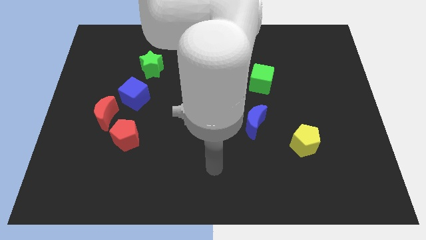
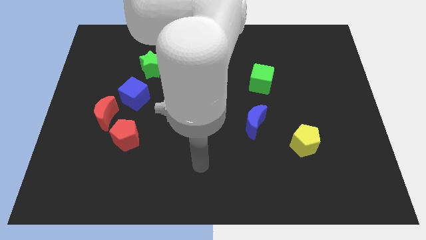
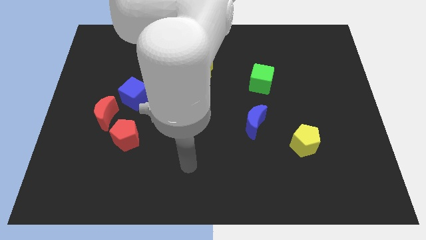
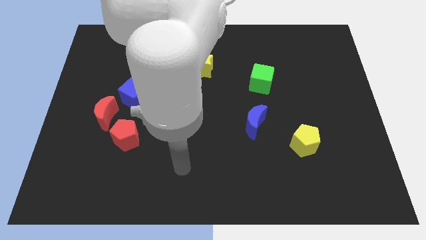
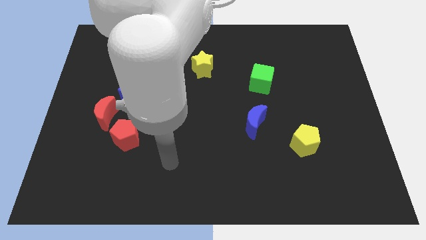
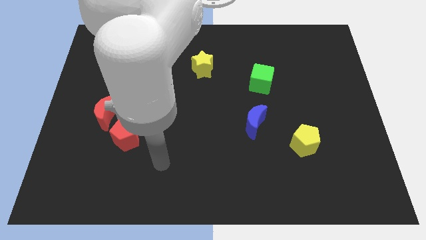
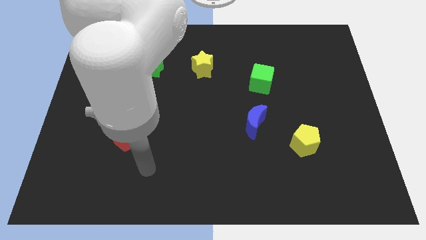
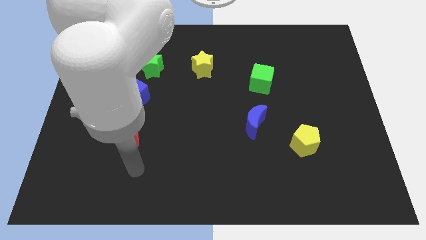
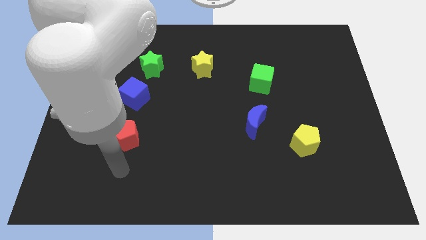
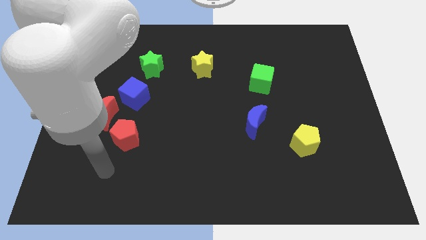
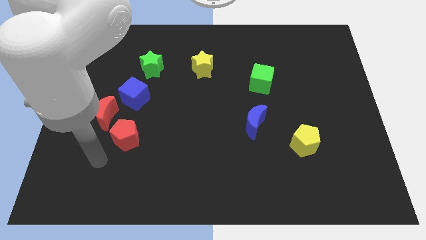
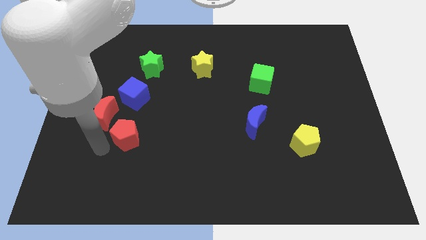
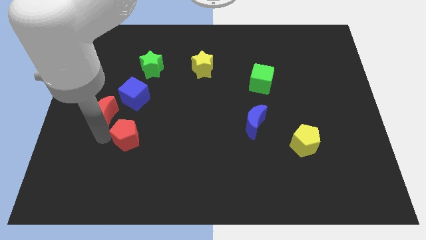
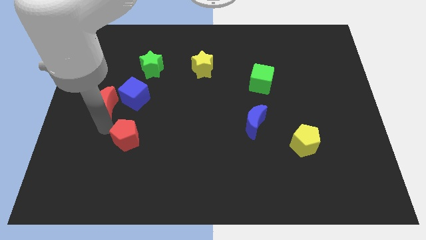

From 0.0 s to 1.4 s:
move the red pentagon away from the red moon

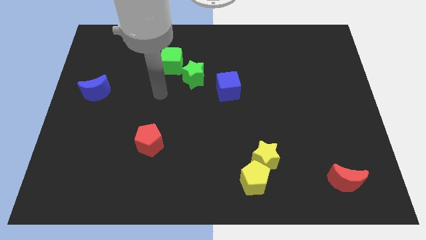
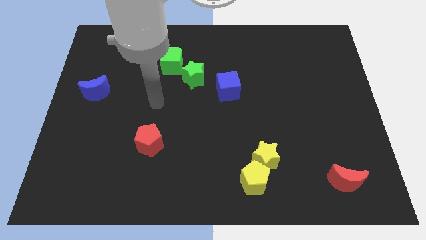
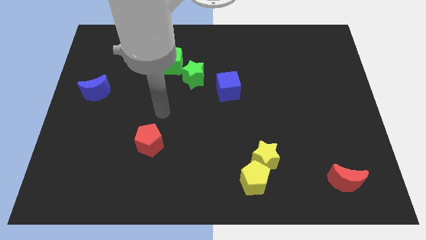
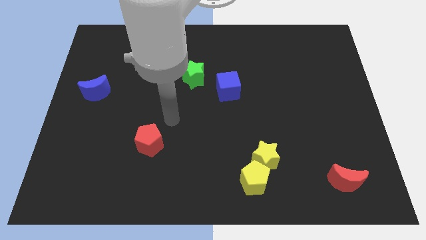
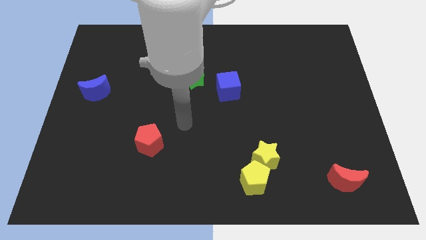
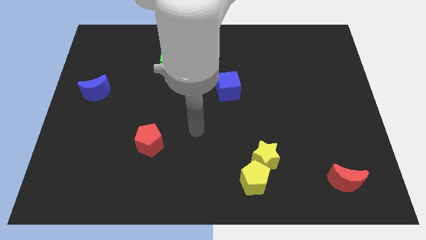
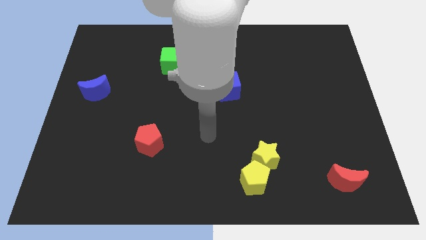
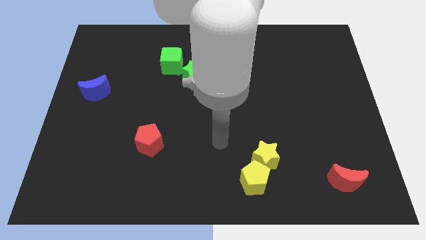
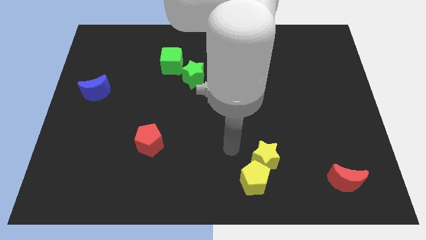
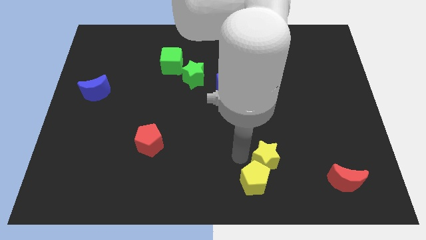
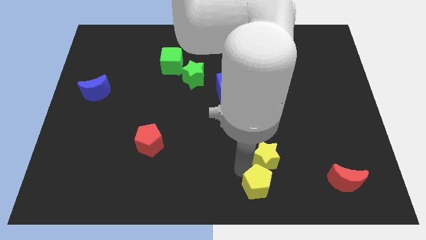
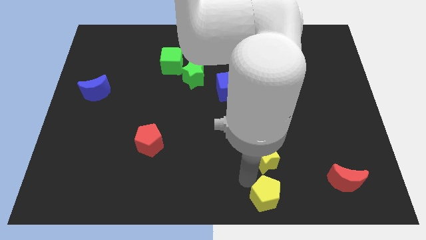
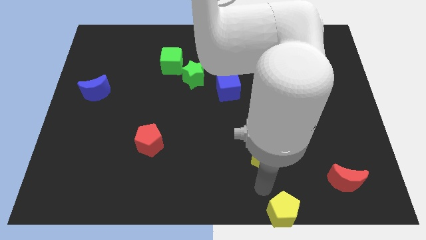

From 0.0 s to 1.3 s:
move the yellow star away from the yellow pentagon

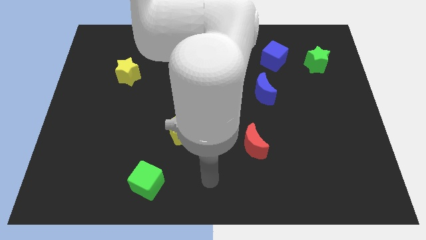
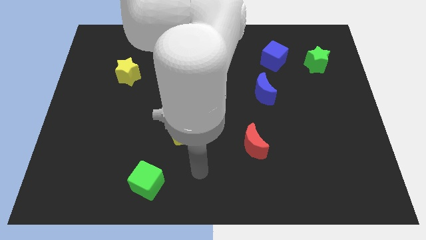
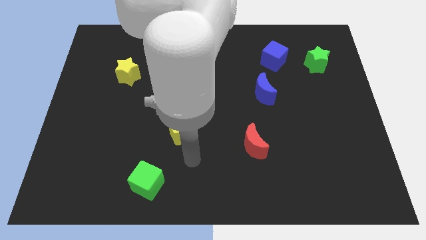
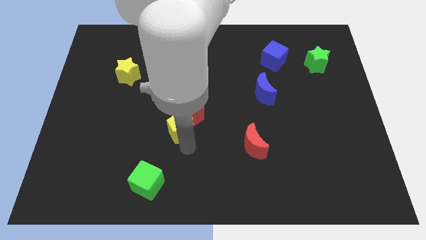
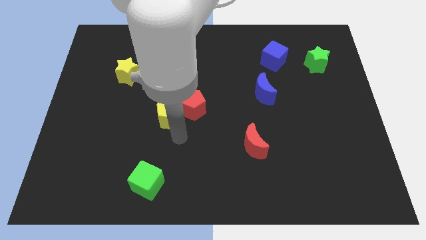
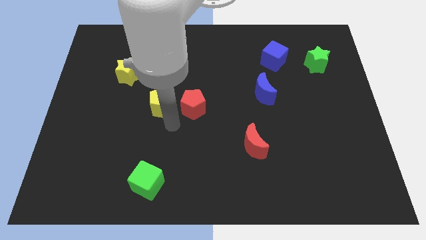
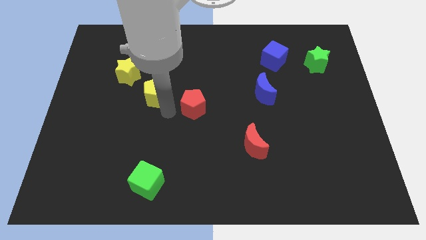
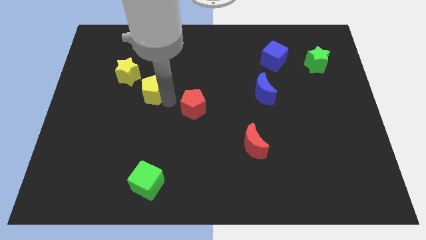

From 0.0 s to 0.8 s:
separate the red pentagon from the yellow pentagon

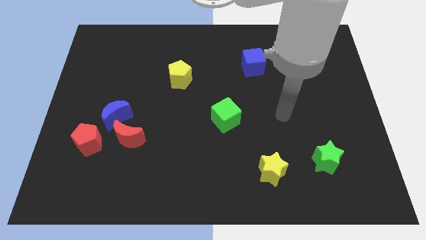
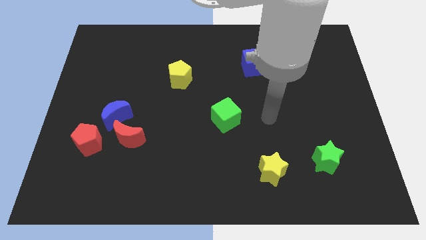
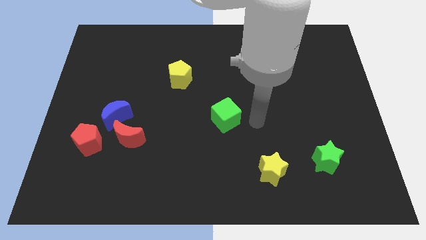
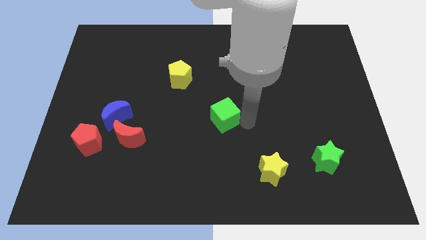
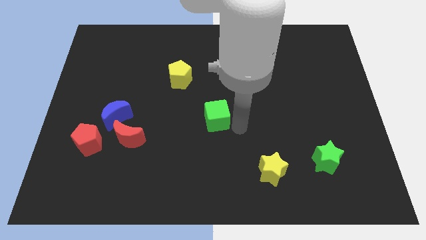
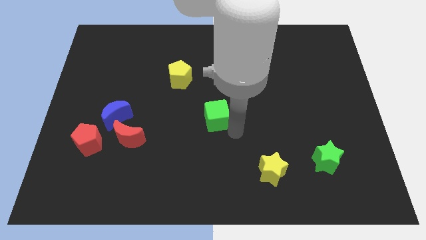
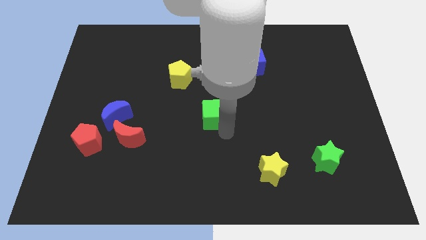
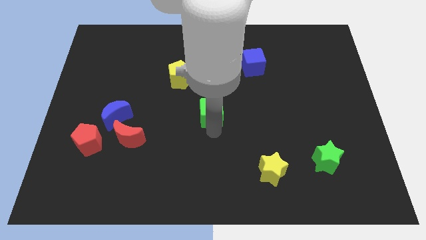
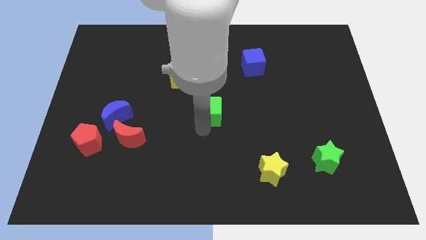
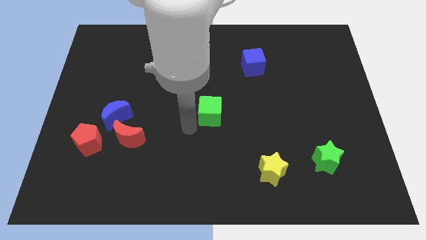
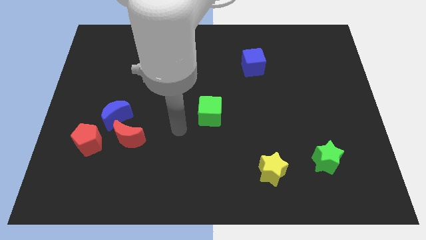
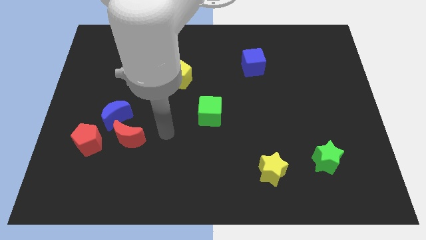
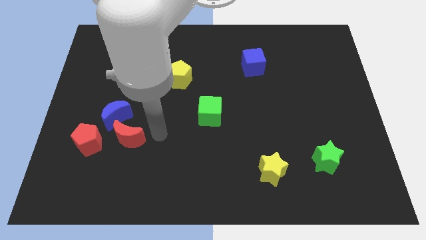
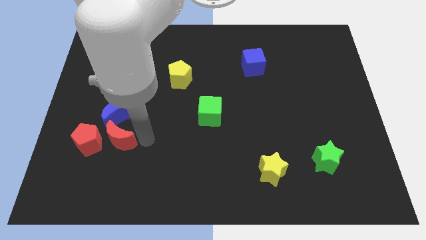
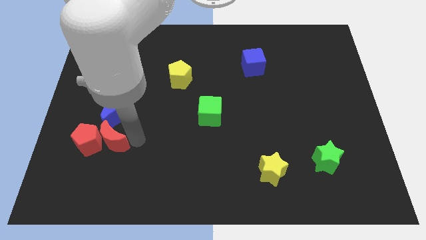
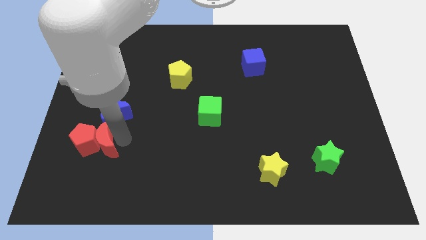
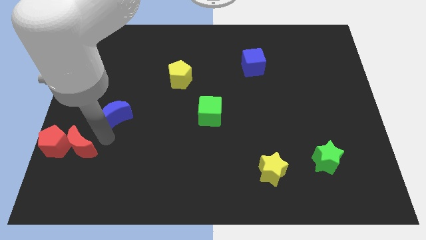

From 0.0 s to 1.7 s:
pull the blue moon apart from the red moon and red pentagon

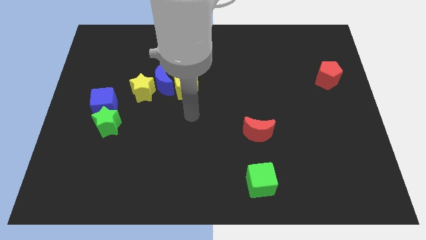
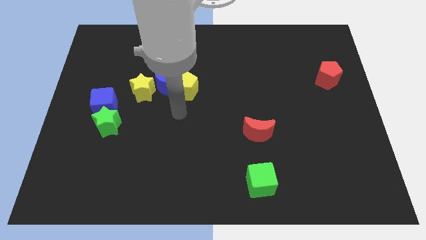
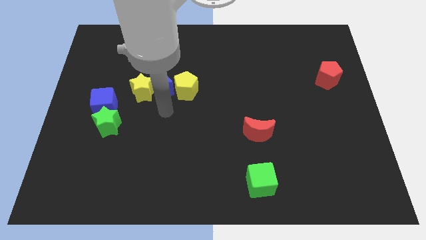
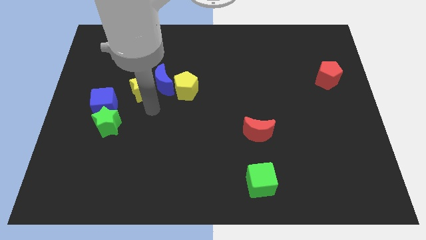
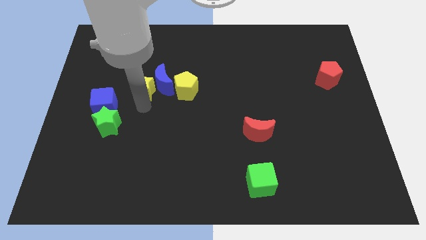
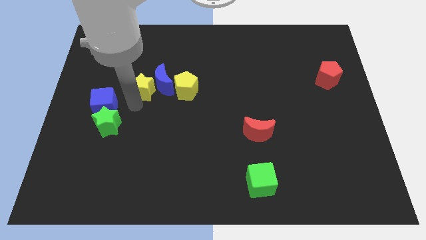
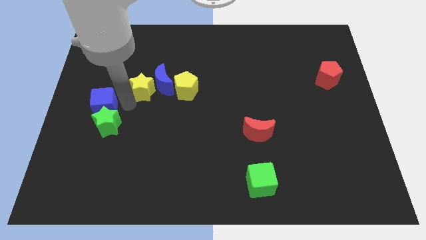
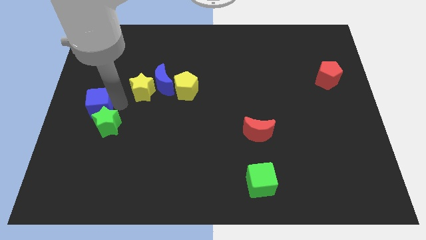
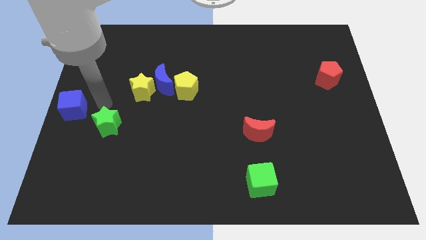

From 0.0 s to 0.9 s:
move the green star away from the blue cube

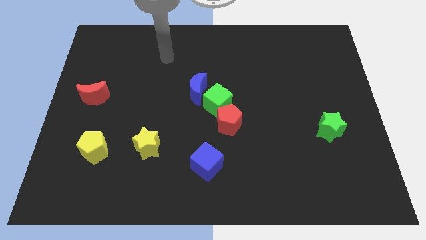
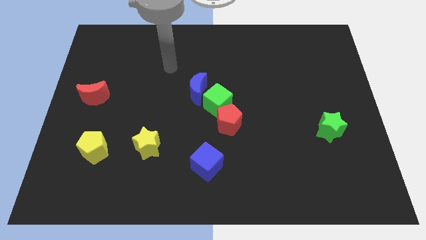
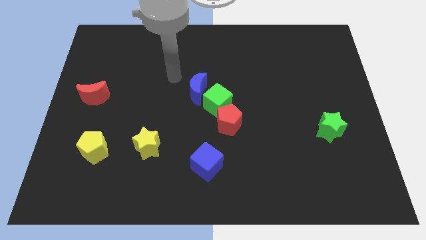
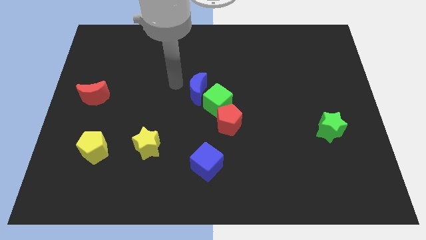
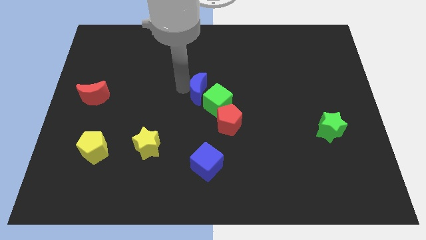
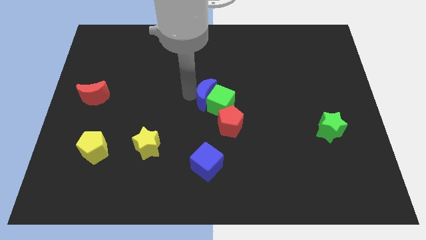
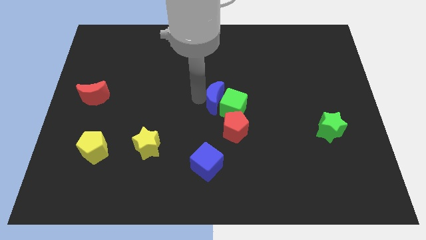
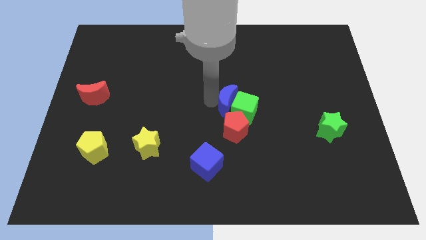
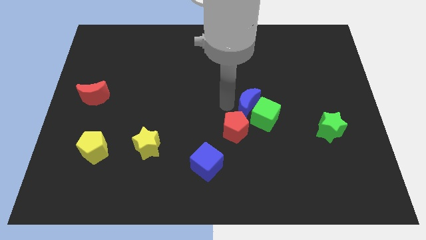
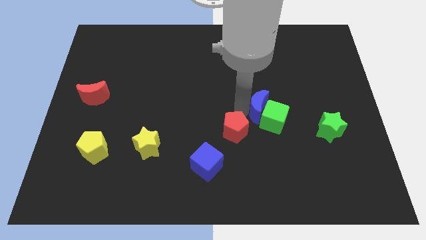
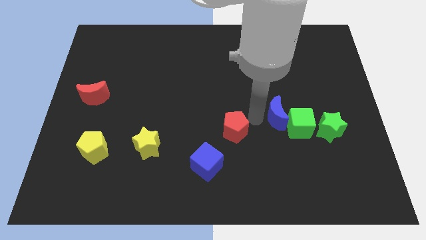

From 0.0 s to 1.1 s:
move the red pentagon away from the green cube

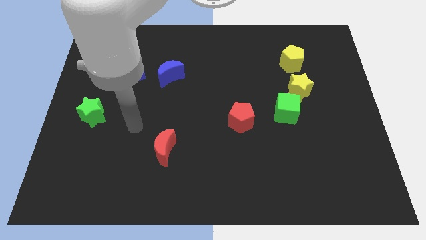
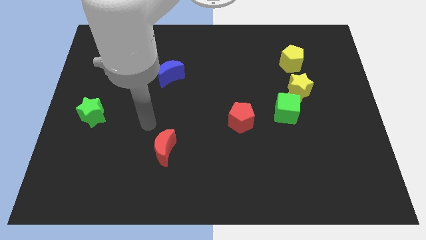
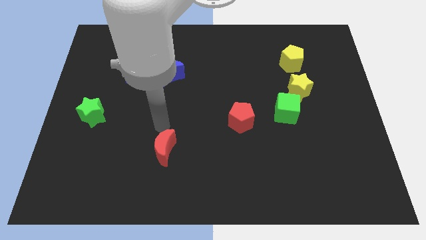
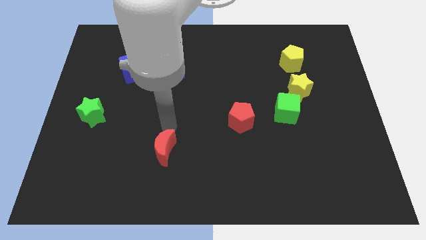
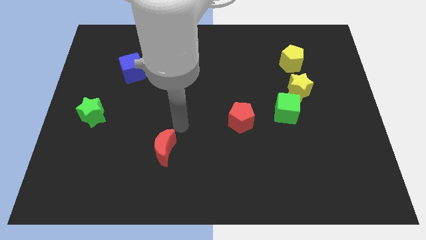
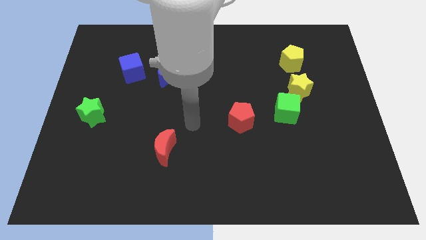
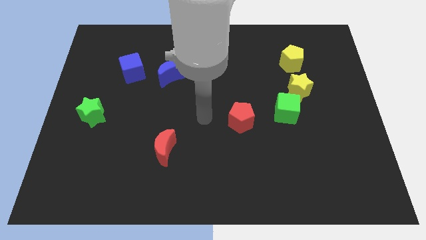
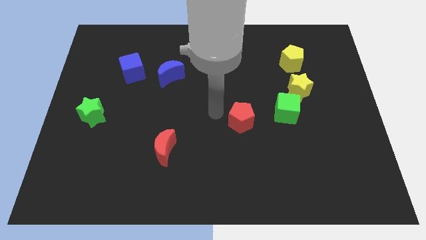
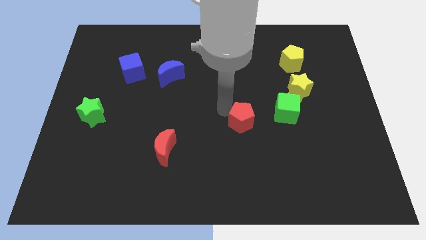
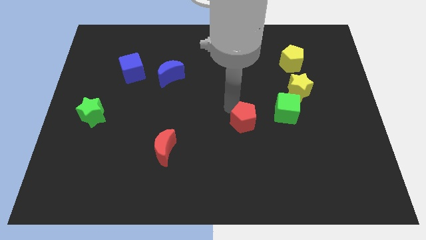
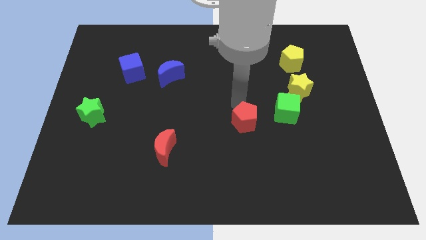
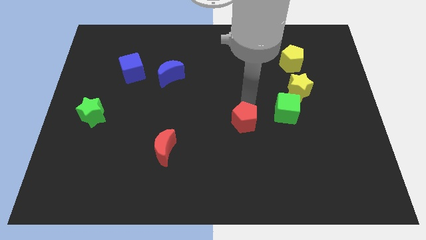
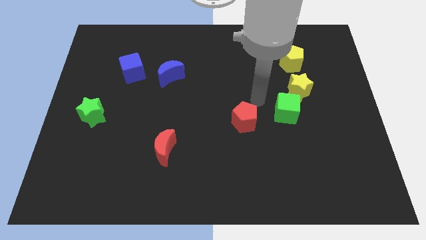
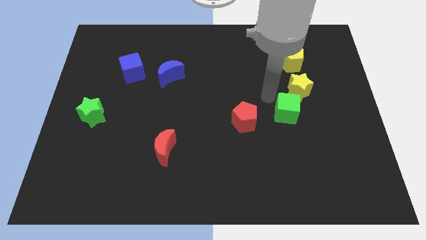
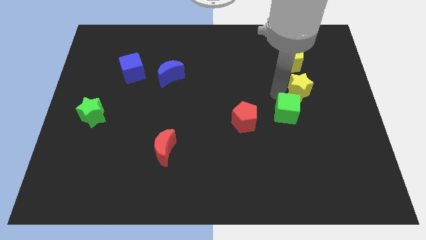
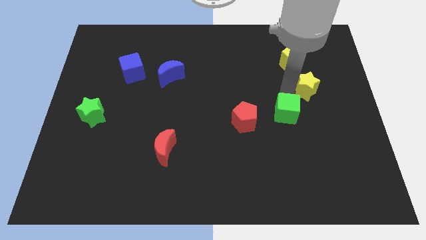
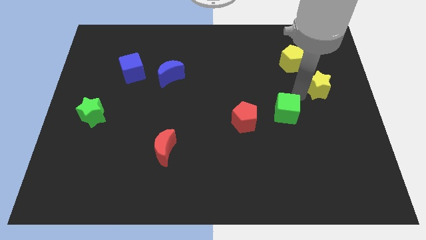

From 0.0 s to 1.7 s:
separate the green cube from the yellow star

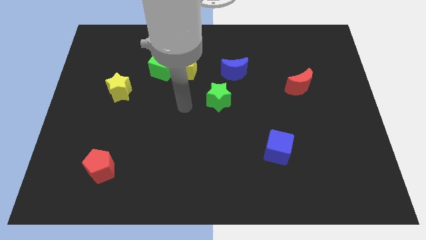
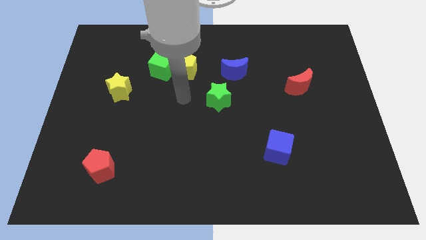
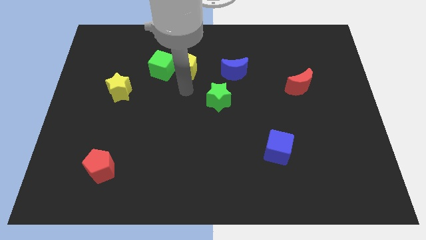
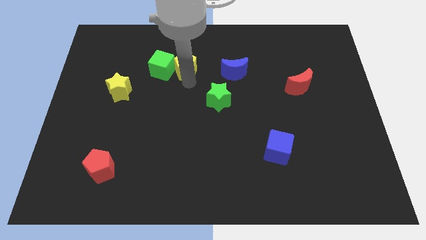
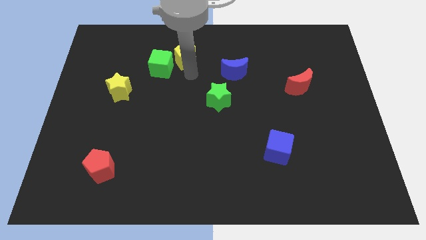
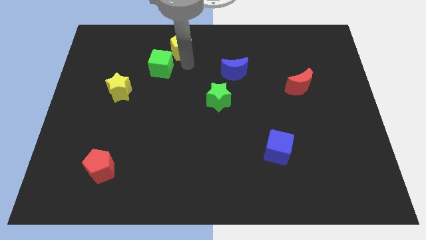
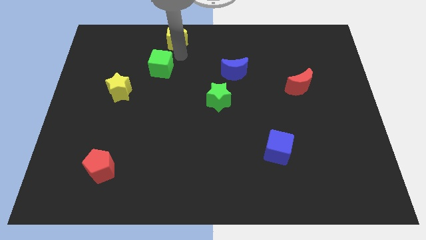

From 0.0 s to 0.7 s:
move the green cube away from the yellow pentagon
